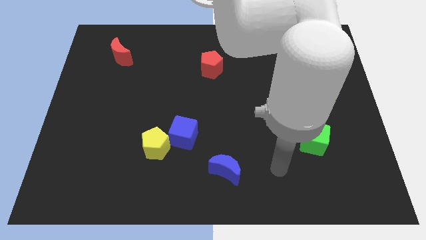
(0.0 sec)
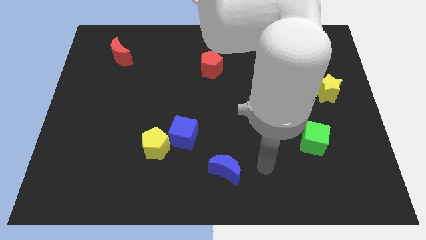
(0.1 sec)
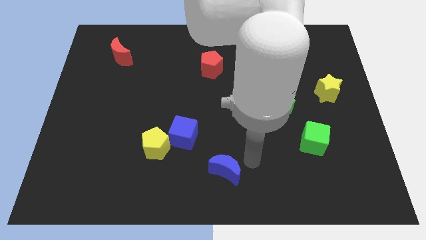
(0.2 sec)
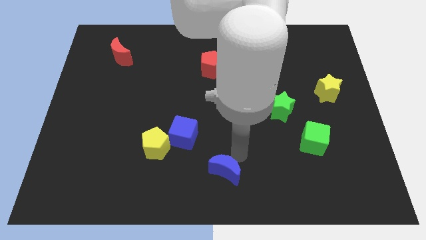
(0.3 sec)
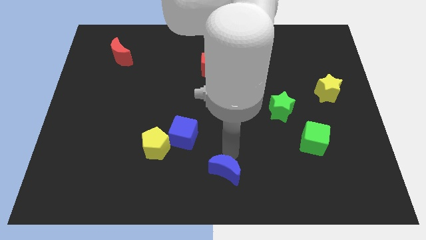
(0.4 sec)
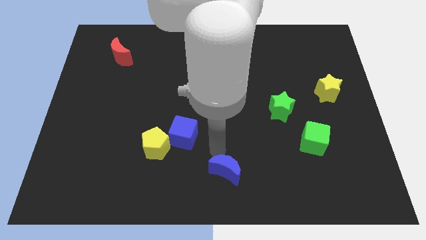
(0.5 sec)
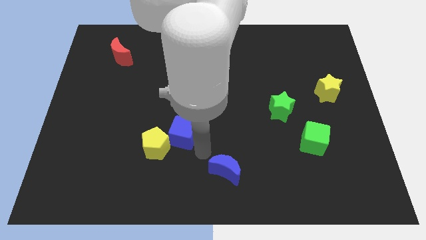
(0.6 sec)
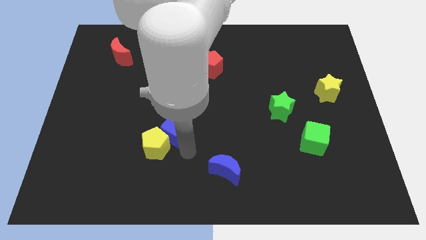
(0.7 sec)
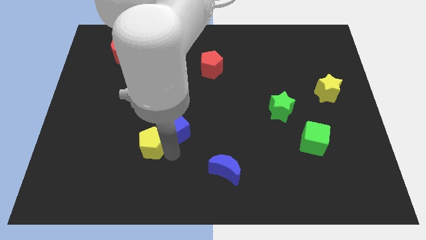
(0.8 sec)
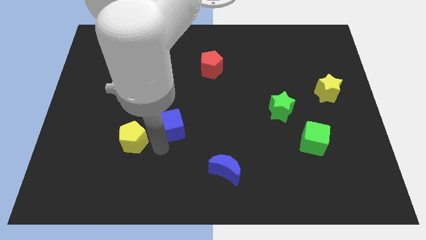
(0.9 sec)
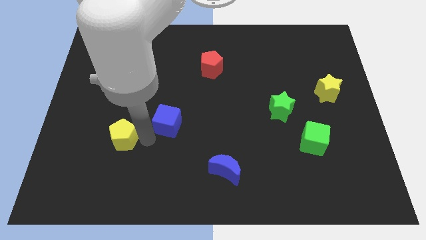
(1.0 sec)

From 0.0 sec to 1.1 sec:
separate the blue cube from the yellow pentagon

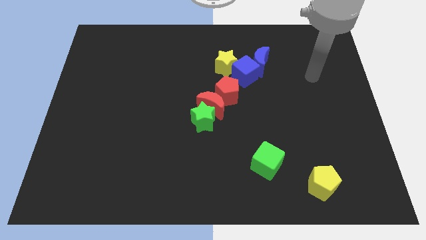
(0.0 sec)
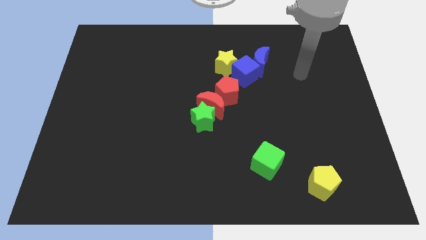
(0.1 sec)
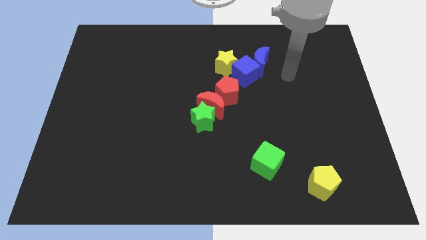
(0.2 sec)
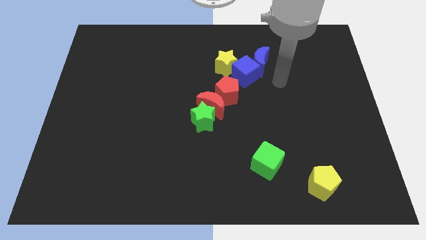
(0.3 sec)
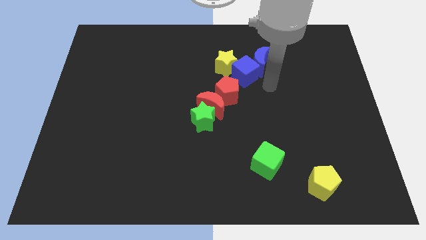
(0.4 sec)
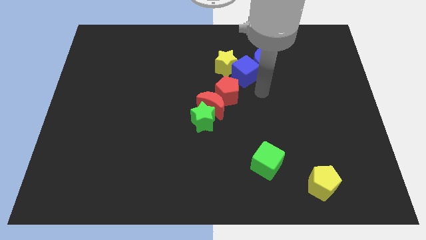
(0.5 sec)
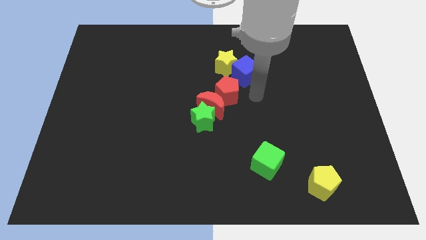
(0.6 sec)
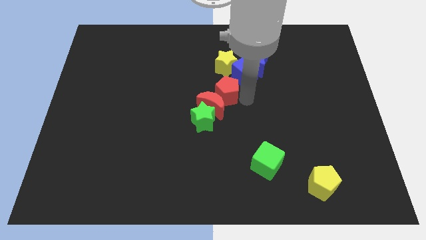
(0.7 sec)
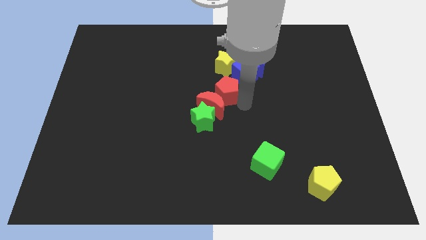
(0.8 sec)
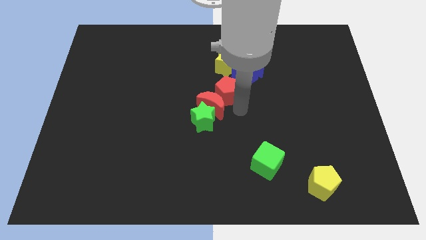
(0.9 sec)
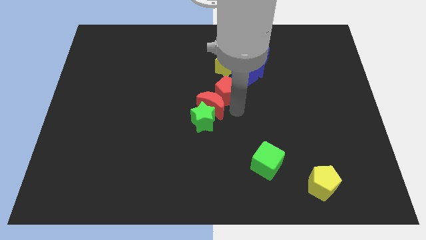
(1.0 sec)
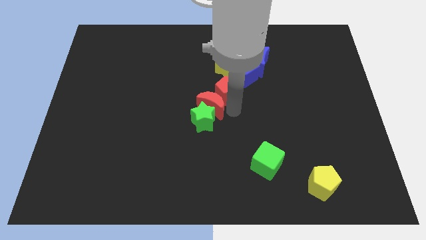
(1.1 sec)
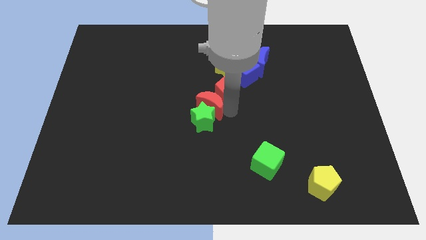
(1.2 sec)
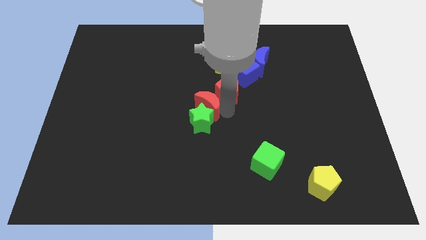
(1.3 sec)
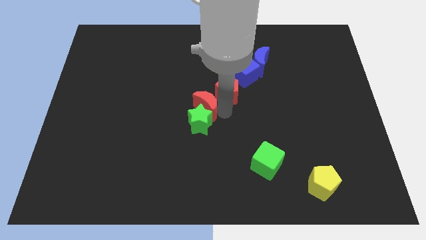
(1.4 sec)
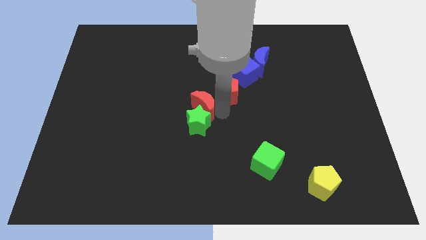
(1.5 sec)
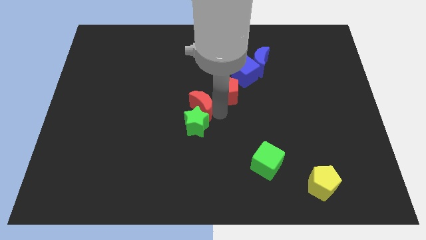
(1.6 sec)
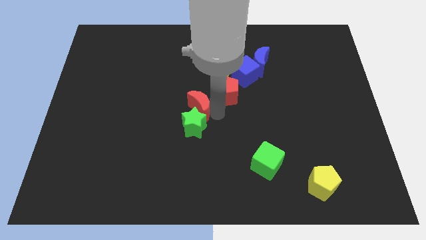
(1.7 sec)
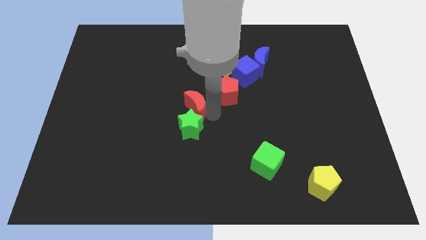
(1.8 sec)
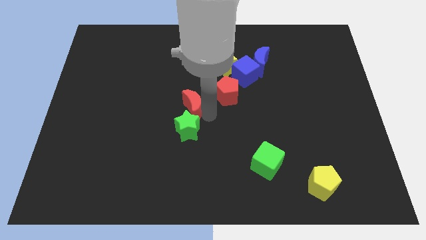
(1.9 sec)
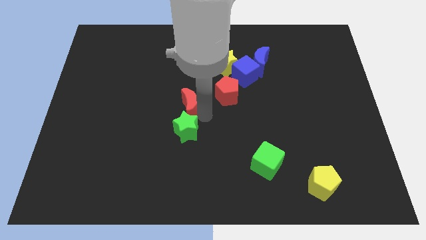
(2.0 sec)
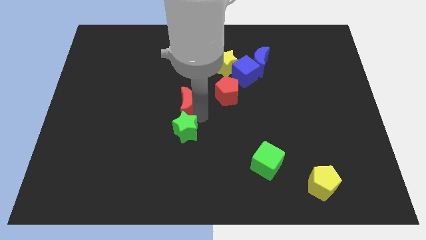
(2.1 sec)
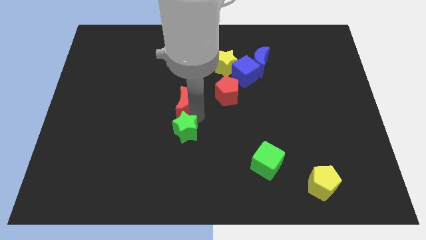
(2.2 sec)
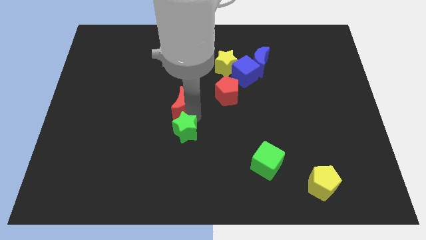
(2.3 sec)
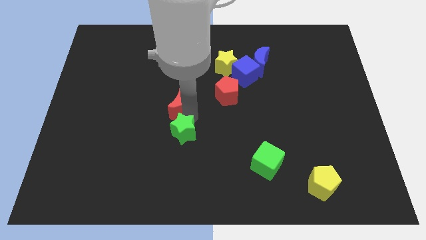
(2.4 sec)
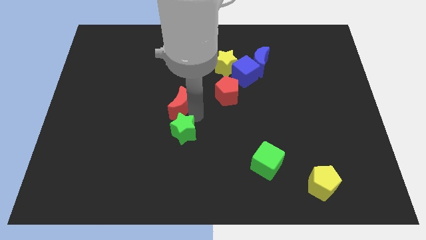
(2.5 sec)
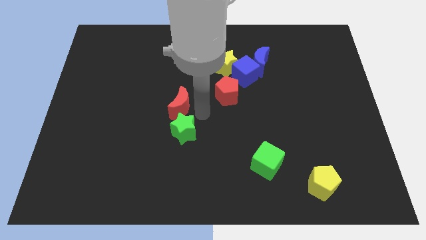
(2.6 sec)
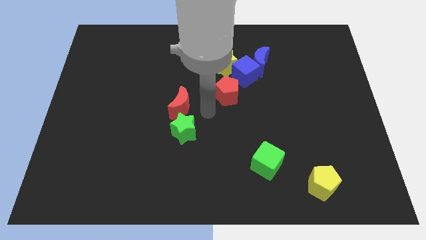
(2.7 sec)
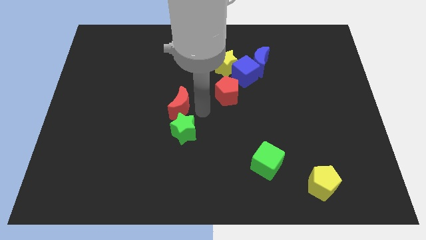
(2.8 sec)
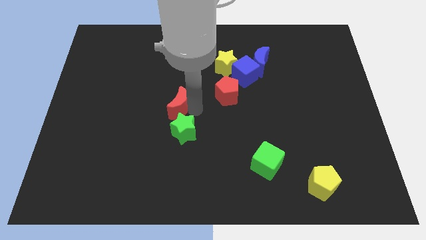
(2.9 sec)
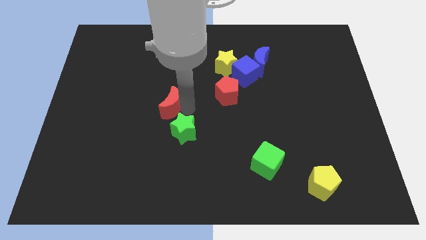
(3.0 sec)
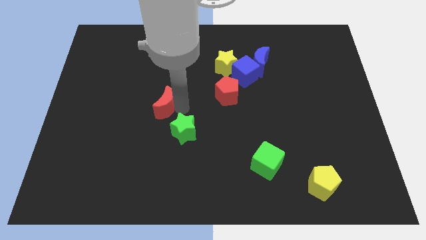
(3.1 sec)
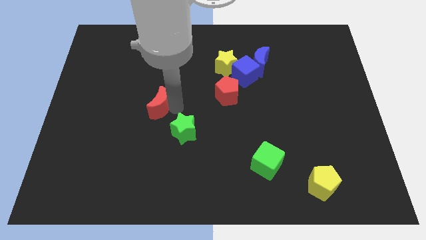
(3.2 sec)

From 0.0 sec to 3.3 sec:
pull the red moon apart from the green star and red pentagon

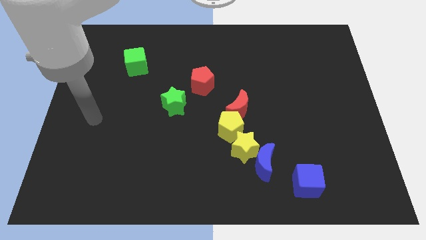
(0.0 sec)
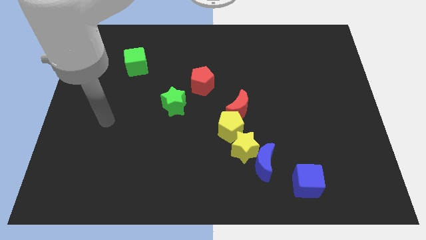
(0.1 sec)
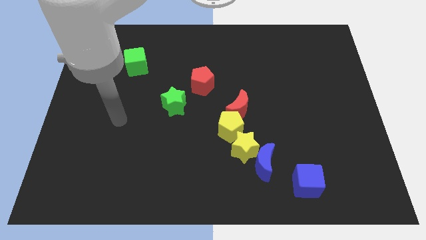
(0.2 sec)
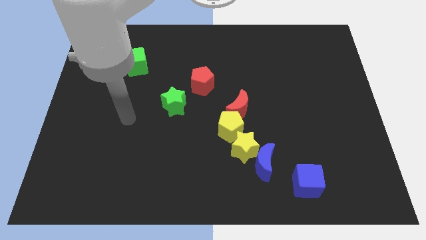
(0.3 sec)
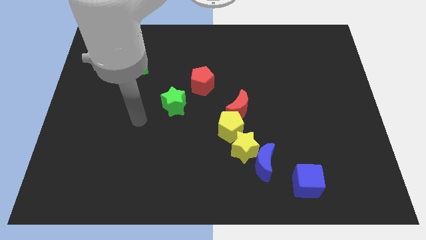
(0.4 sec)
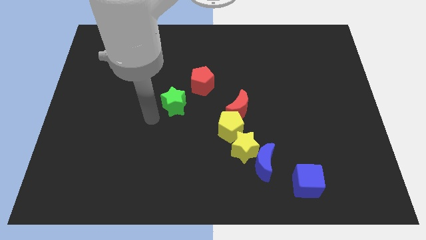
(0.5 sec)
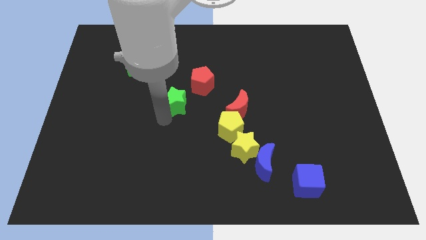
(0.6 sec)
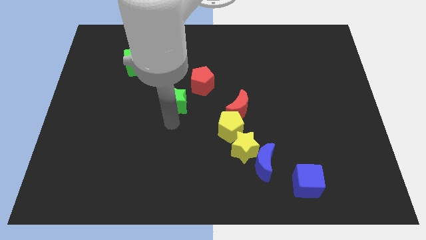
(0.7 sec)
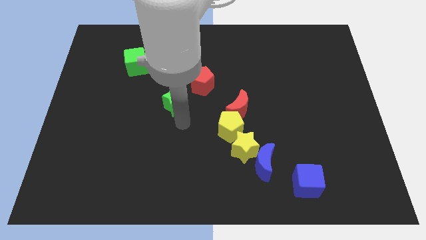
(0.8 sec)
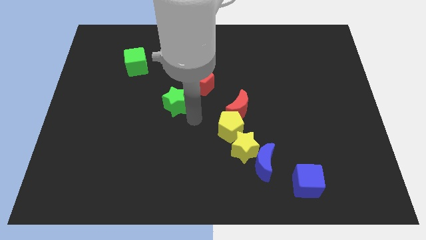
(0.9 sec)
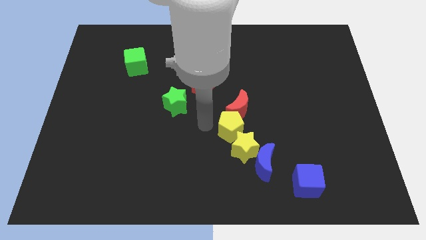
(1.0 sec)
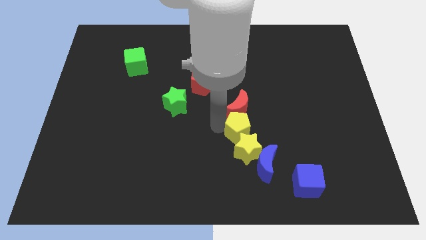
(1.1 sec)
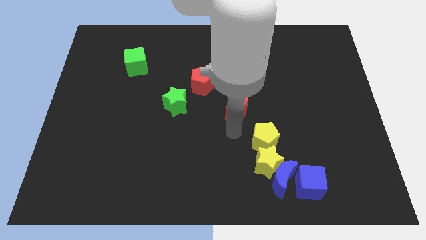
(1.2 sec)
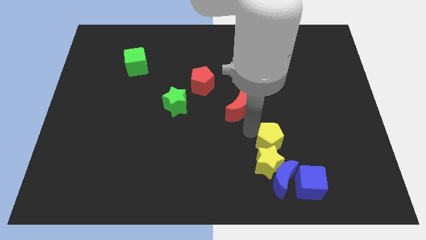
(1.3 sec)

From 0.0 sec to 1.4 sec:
separate the red moon from the yellow pentagon

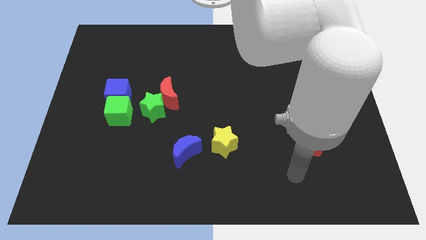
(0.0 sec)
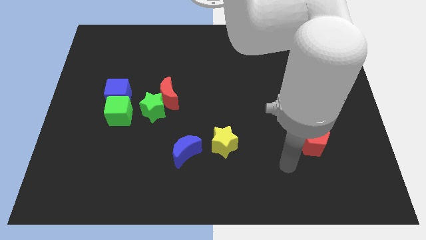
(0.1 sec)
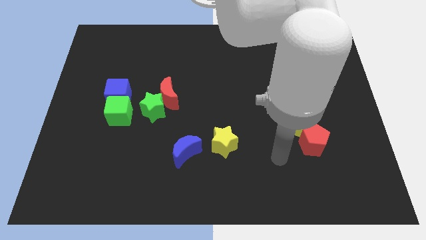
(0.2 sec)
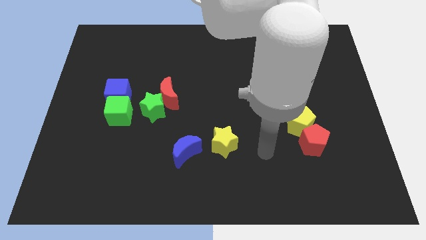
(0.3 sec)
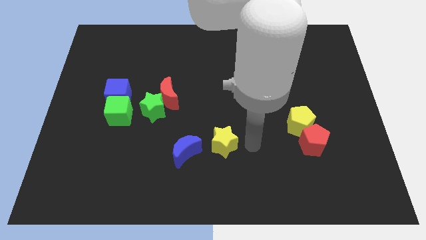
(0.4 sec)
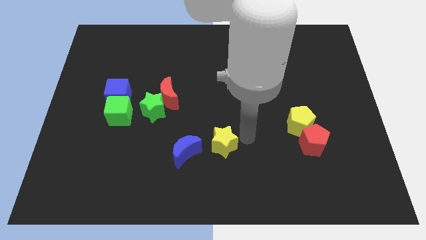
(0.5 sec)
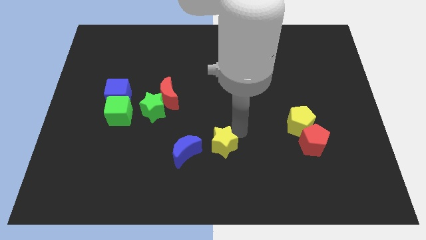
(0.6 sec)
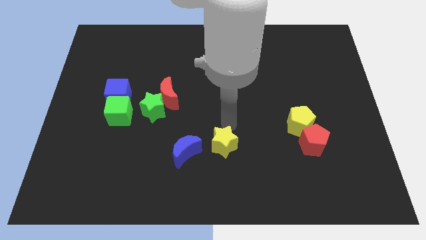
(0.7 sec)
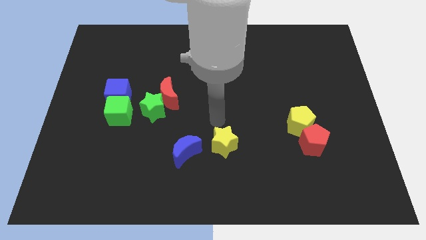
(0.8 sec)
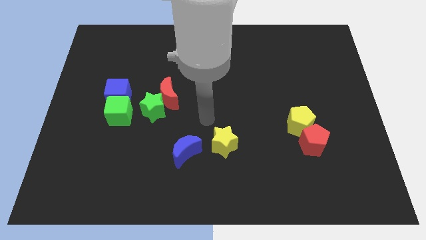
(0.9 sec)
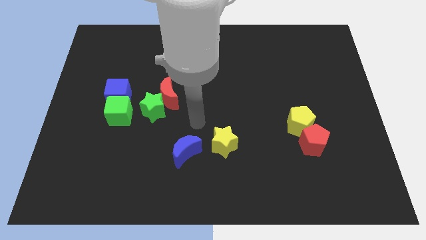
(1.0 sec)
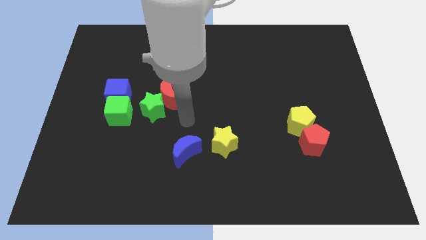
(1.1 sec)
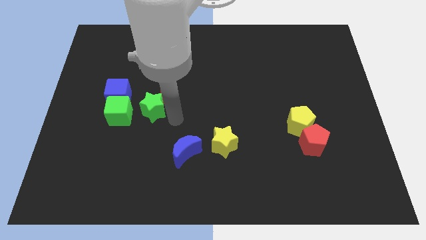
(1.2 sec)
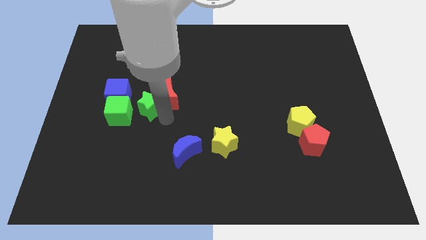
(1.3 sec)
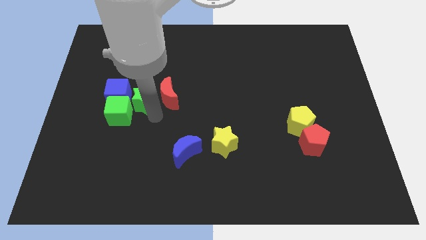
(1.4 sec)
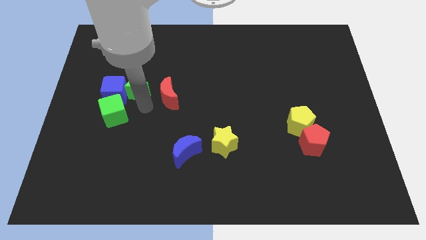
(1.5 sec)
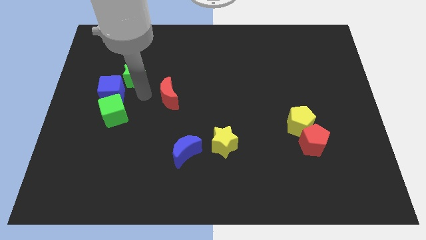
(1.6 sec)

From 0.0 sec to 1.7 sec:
move the red moon away from the green star

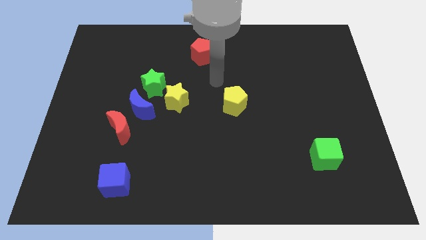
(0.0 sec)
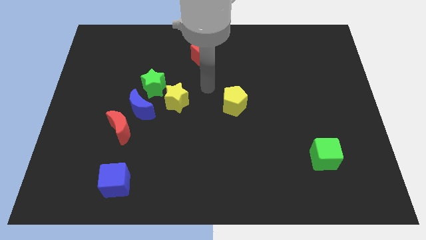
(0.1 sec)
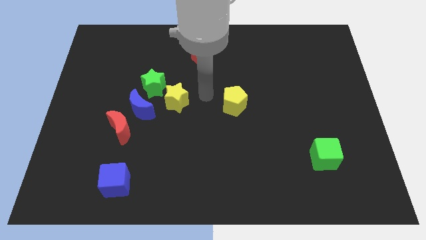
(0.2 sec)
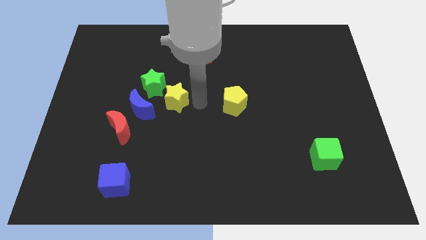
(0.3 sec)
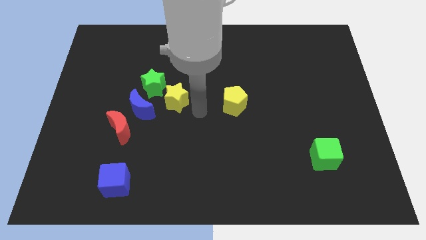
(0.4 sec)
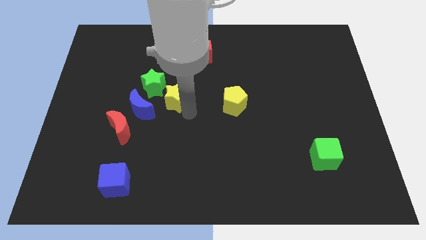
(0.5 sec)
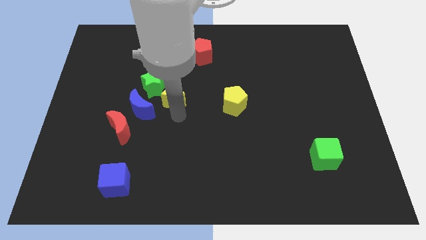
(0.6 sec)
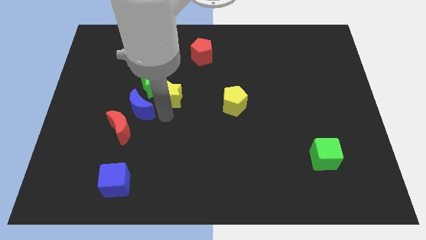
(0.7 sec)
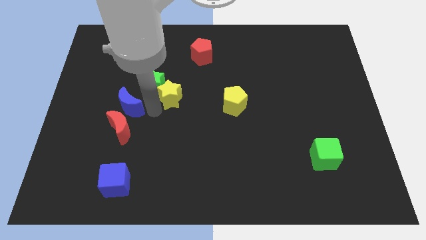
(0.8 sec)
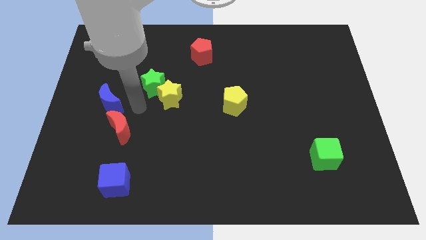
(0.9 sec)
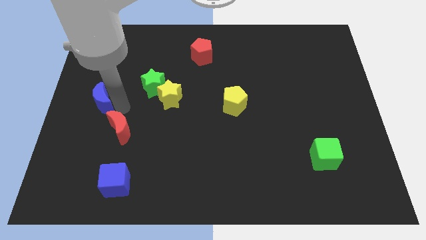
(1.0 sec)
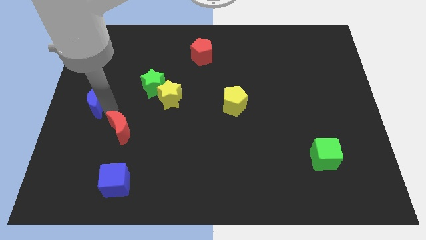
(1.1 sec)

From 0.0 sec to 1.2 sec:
move the red moon away from the blue moon

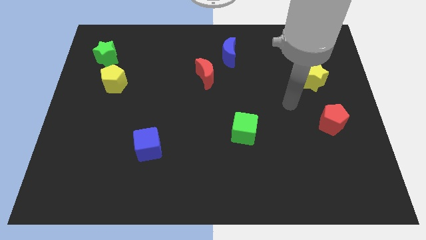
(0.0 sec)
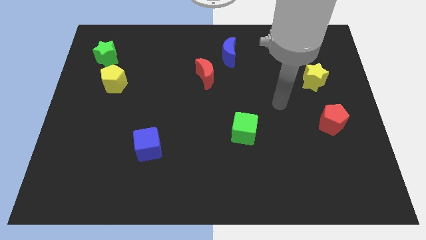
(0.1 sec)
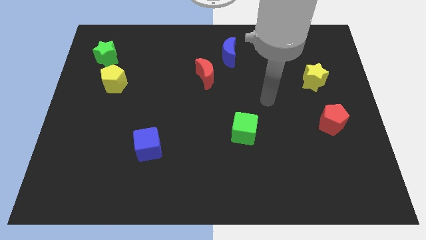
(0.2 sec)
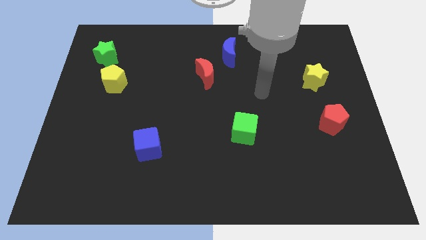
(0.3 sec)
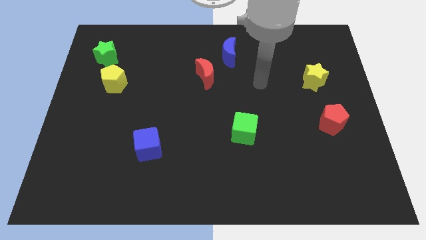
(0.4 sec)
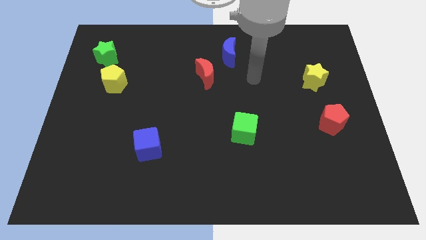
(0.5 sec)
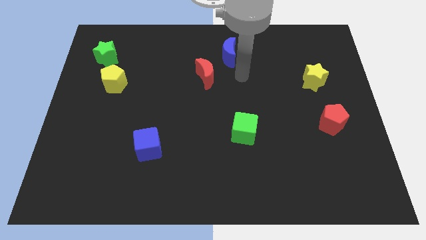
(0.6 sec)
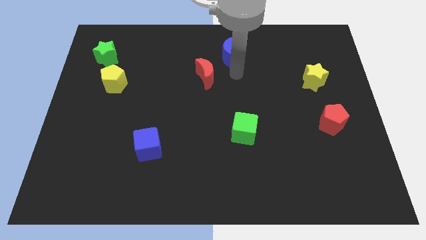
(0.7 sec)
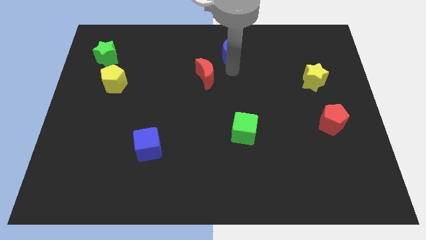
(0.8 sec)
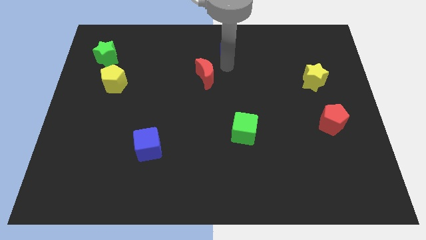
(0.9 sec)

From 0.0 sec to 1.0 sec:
pull the red moon apart from the blue moon
